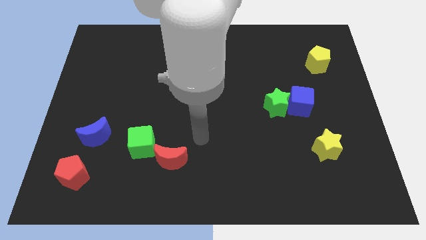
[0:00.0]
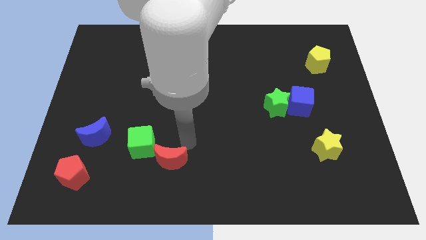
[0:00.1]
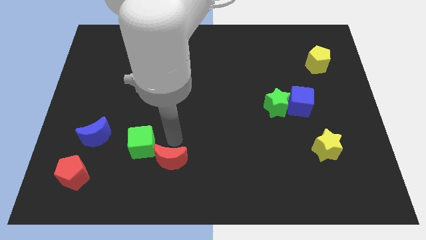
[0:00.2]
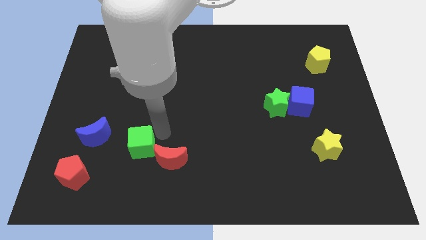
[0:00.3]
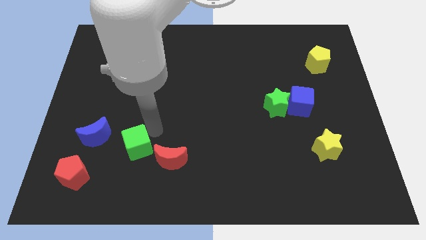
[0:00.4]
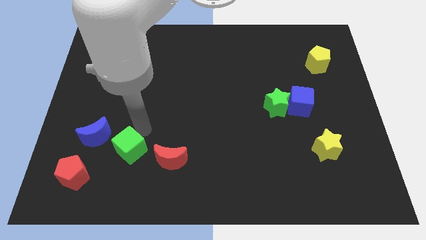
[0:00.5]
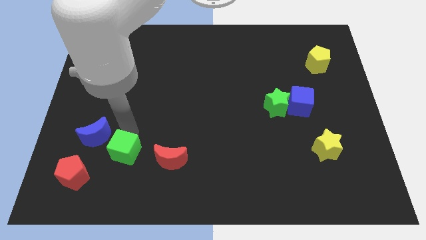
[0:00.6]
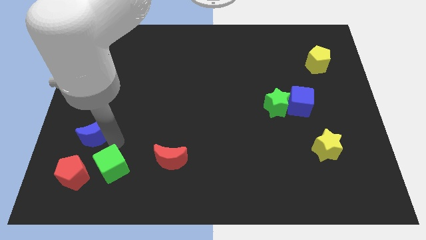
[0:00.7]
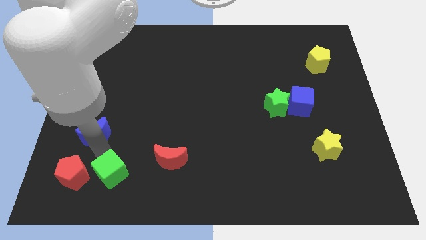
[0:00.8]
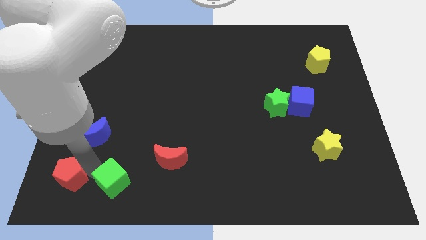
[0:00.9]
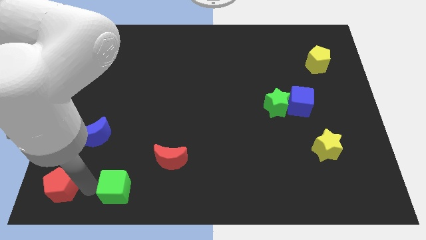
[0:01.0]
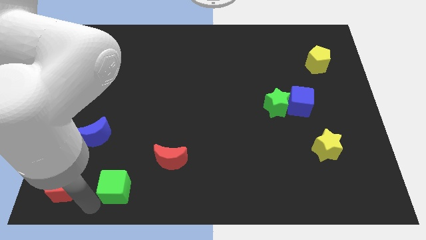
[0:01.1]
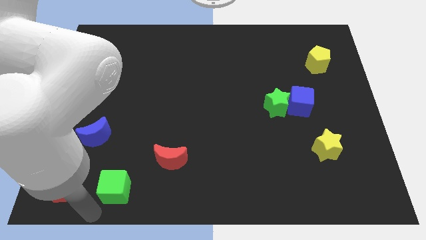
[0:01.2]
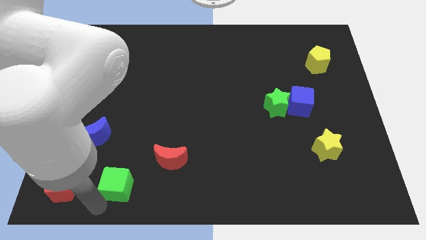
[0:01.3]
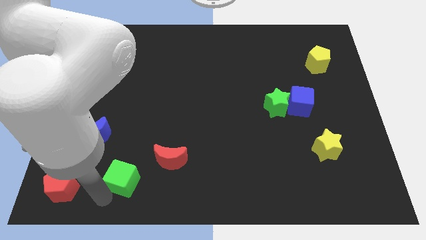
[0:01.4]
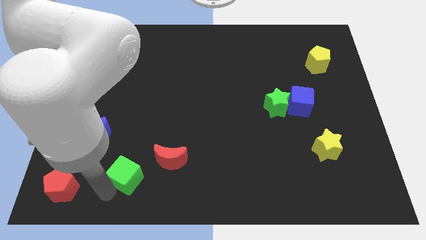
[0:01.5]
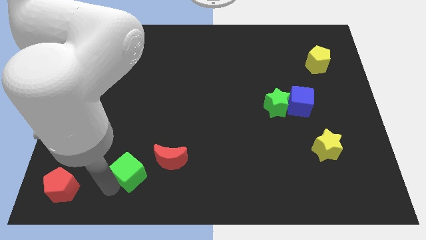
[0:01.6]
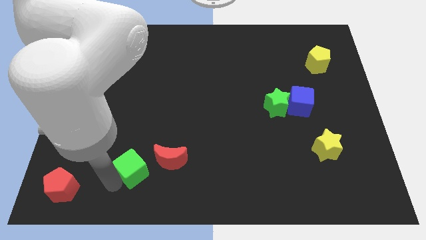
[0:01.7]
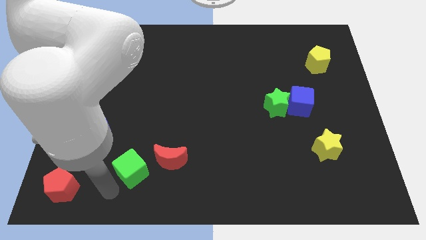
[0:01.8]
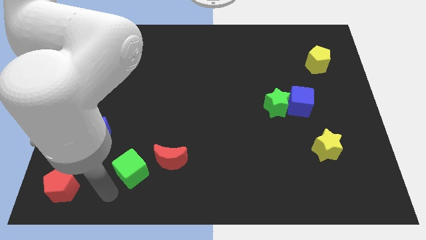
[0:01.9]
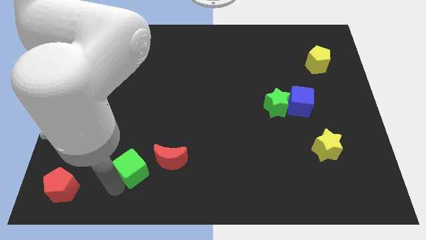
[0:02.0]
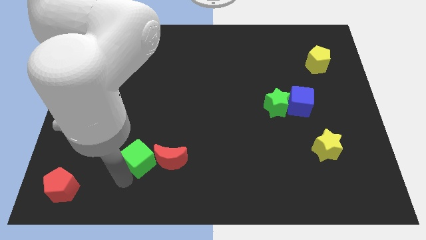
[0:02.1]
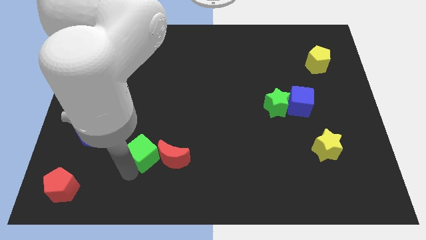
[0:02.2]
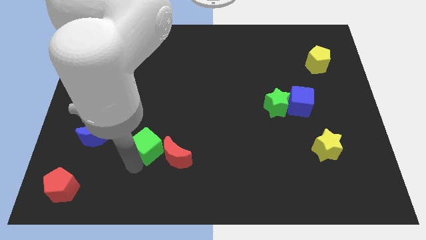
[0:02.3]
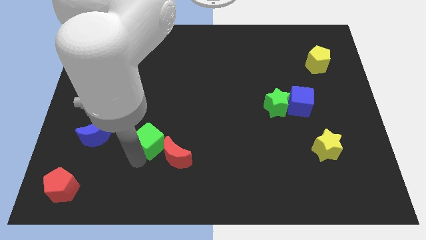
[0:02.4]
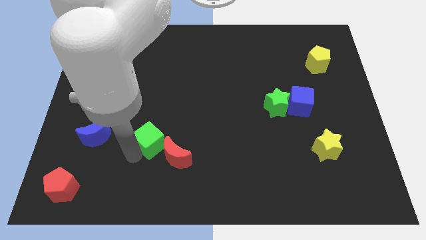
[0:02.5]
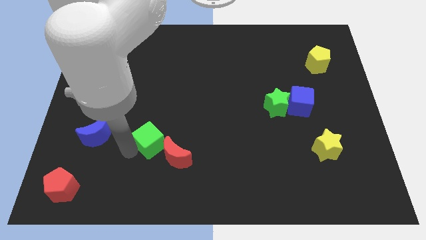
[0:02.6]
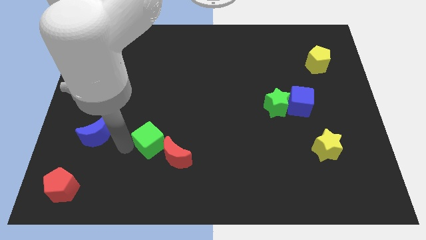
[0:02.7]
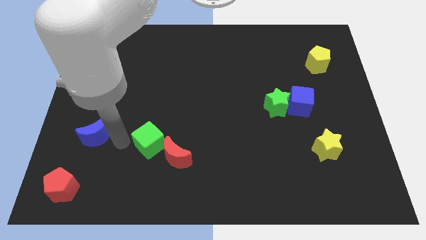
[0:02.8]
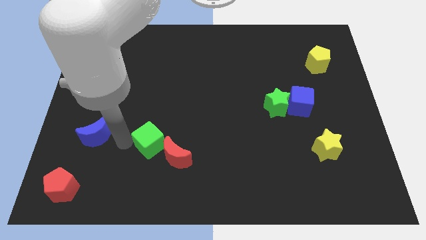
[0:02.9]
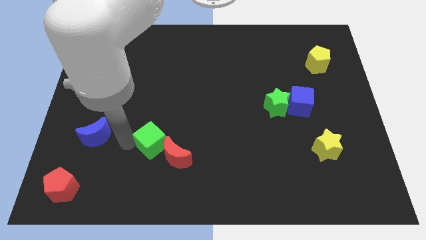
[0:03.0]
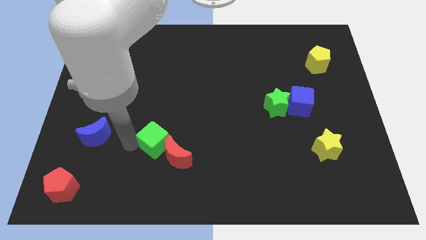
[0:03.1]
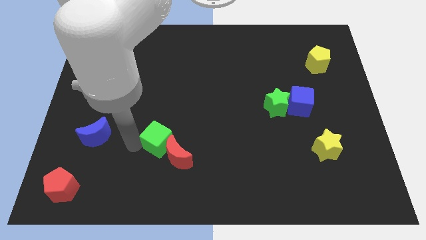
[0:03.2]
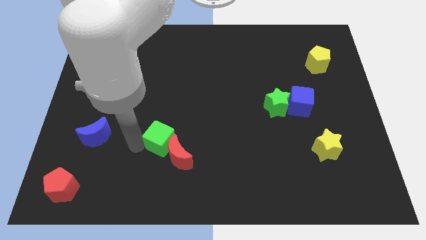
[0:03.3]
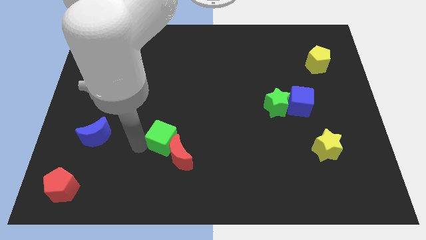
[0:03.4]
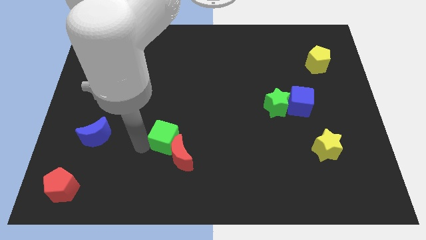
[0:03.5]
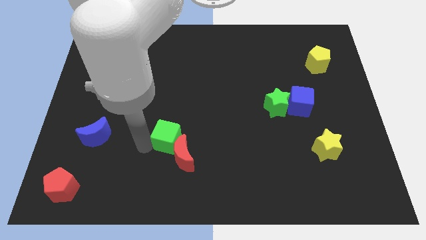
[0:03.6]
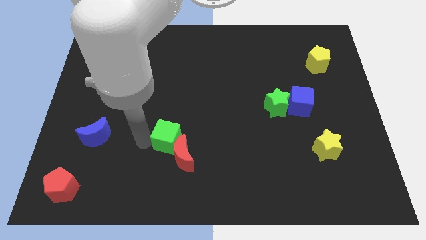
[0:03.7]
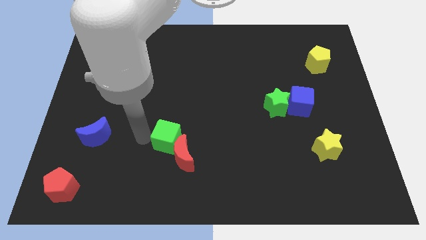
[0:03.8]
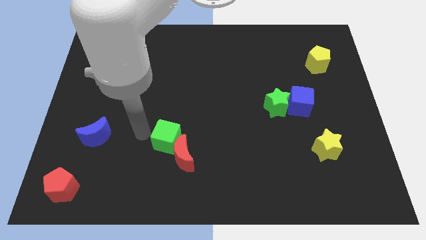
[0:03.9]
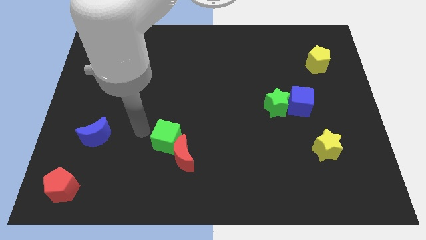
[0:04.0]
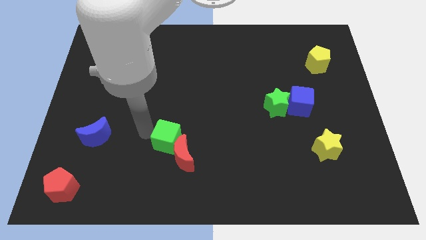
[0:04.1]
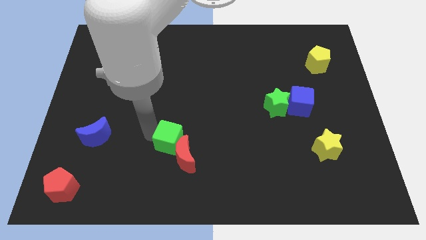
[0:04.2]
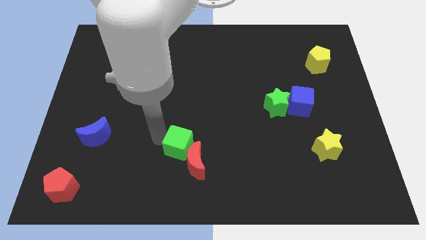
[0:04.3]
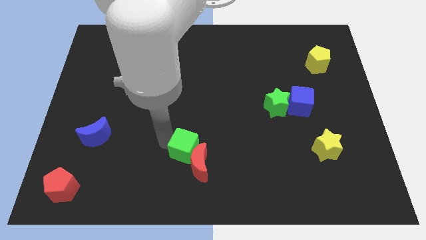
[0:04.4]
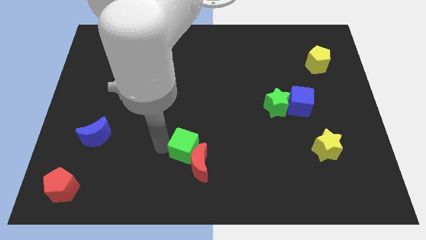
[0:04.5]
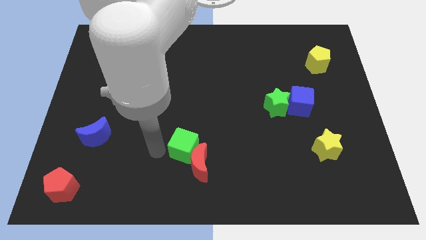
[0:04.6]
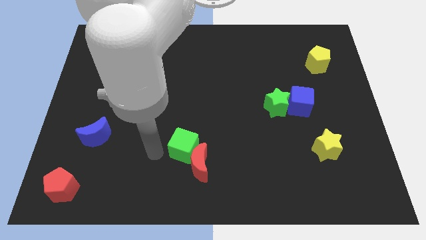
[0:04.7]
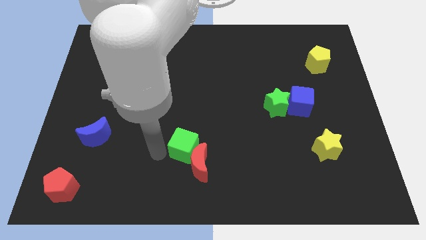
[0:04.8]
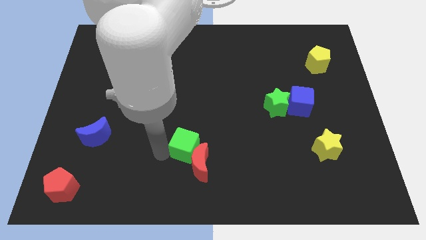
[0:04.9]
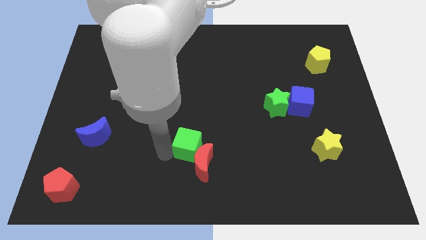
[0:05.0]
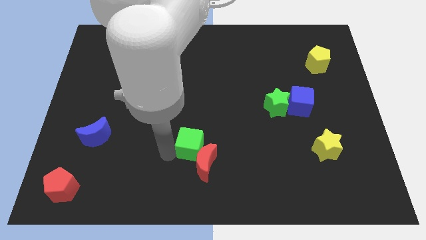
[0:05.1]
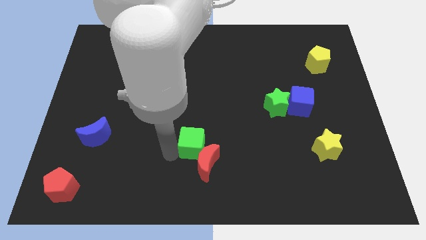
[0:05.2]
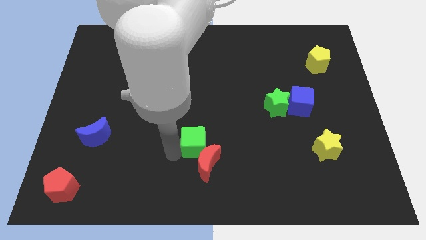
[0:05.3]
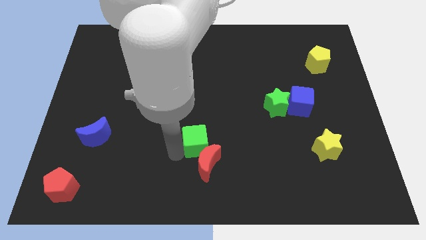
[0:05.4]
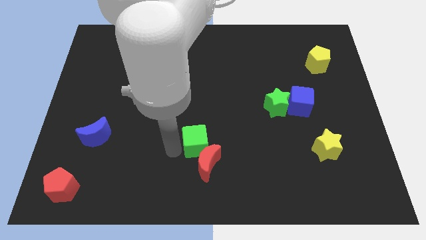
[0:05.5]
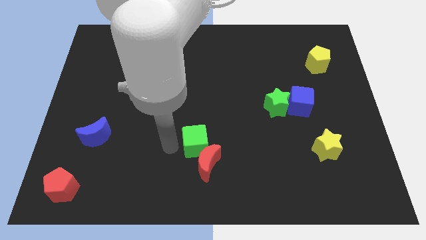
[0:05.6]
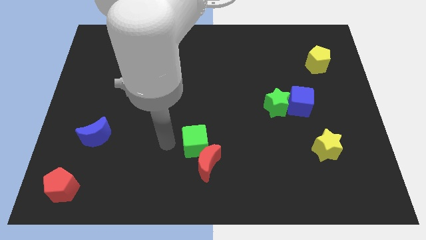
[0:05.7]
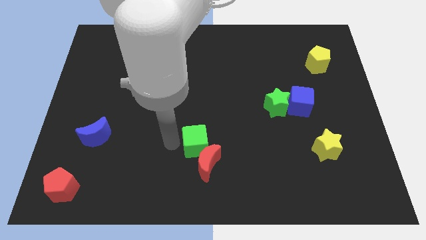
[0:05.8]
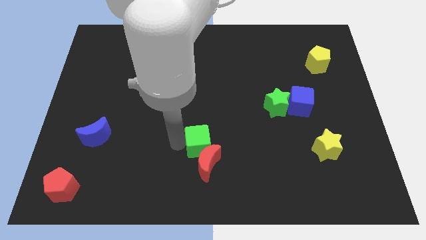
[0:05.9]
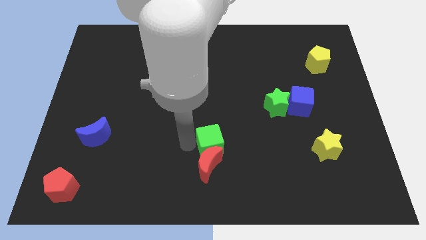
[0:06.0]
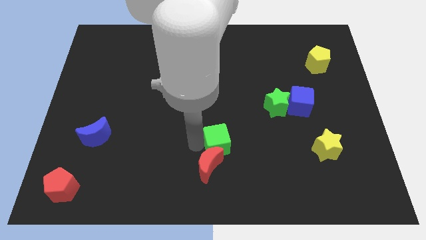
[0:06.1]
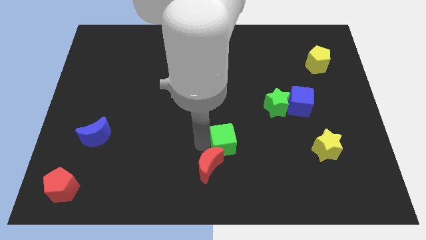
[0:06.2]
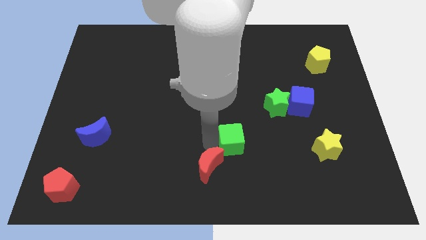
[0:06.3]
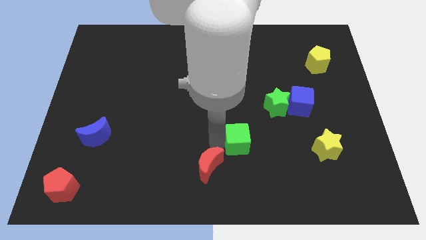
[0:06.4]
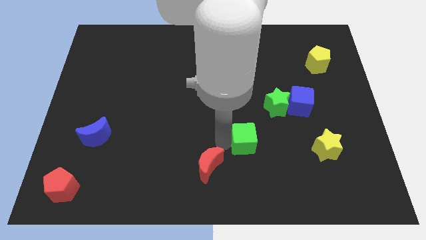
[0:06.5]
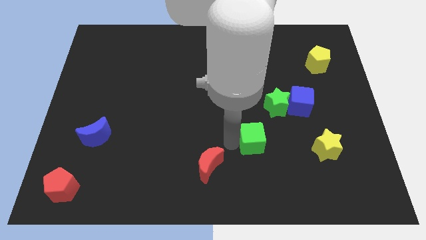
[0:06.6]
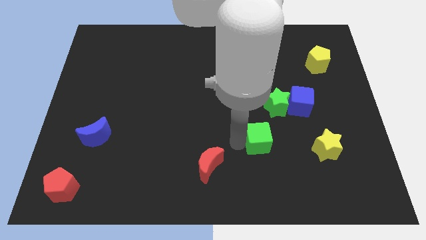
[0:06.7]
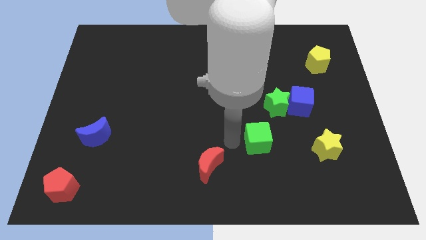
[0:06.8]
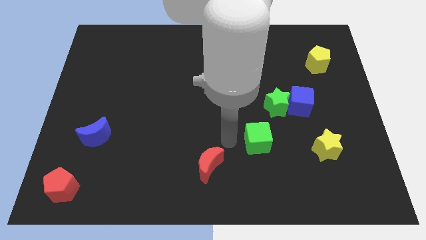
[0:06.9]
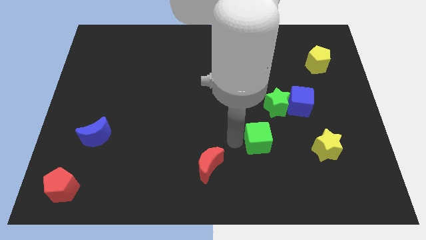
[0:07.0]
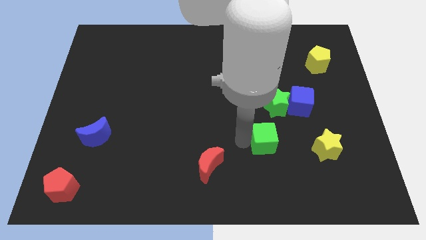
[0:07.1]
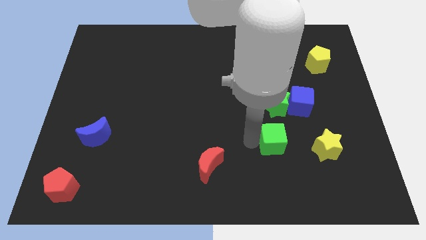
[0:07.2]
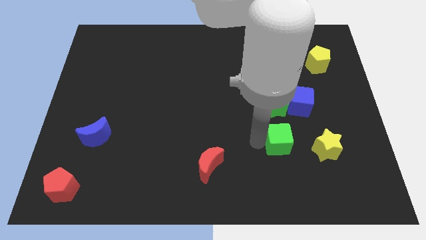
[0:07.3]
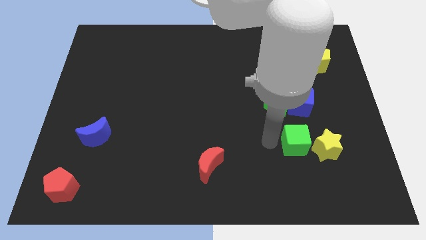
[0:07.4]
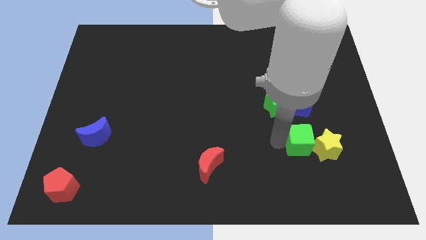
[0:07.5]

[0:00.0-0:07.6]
put the green cube to the yellow star
